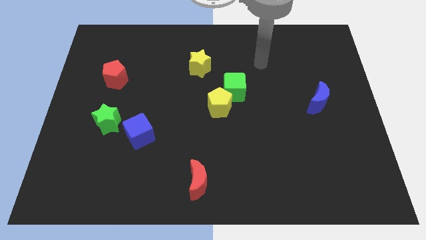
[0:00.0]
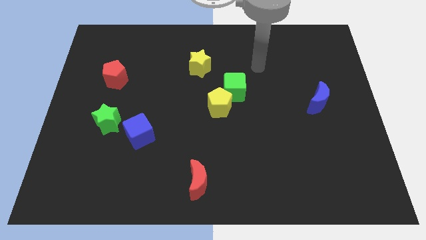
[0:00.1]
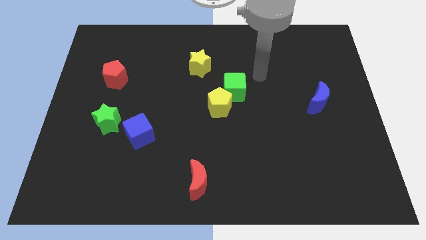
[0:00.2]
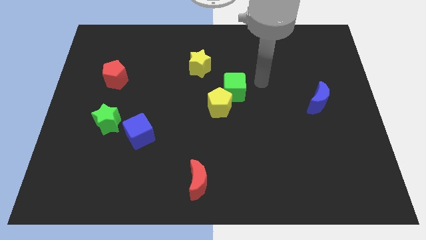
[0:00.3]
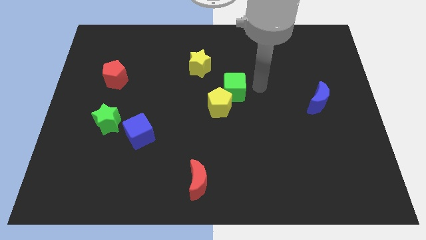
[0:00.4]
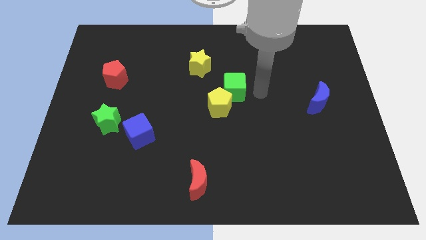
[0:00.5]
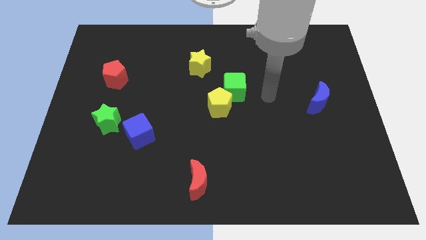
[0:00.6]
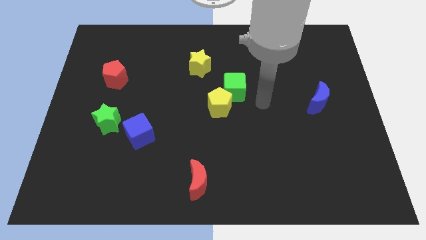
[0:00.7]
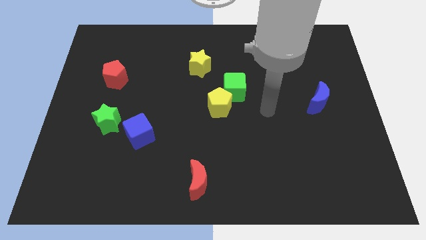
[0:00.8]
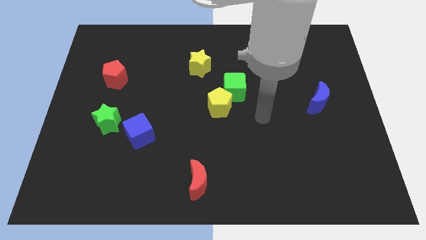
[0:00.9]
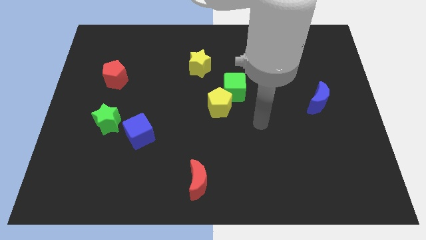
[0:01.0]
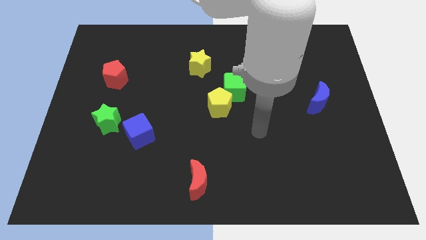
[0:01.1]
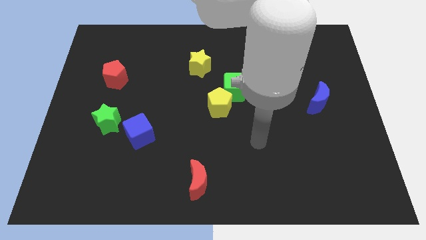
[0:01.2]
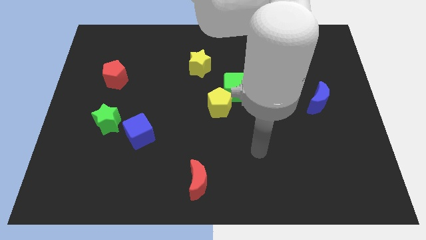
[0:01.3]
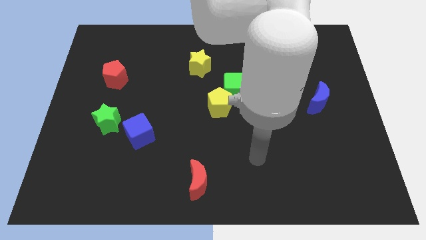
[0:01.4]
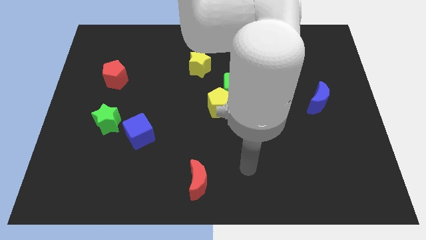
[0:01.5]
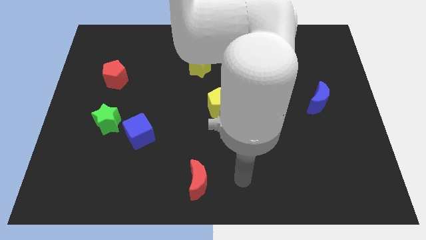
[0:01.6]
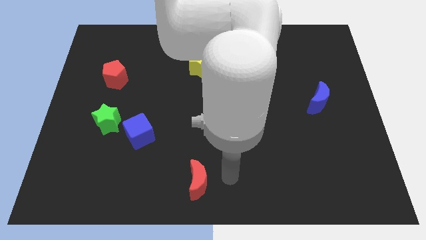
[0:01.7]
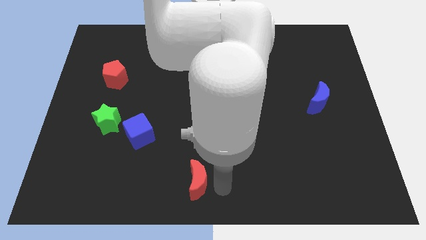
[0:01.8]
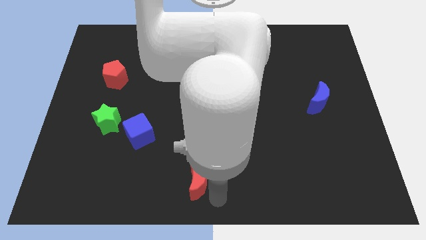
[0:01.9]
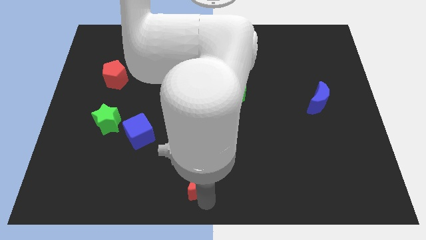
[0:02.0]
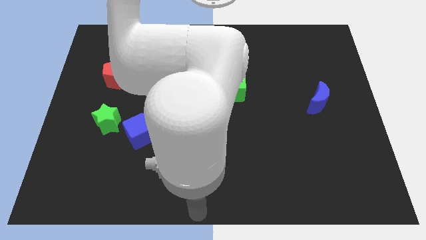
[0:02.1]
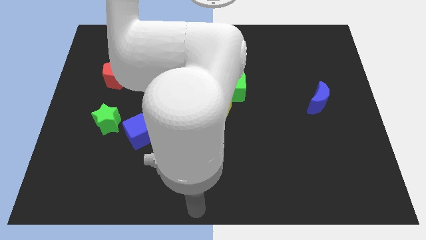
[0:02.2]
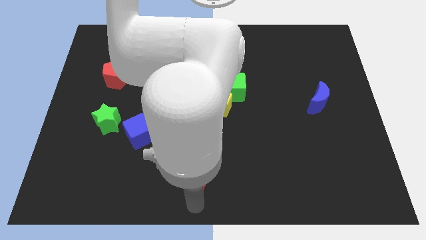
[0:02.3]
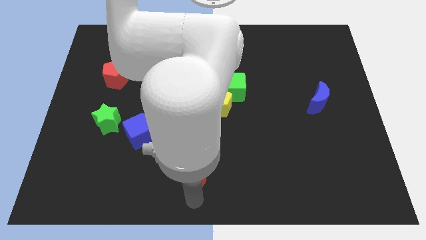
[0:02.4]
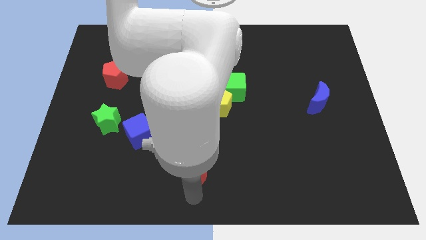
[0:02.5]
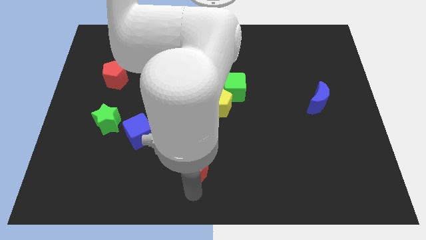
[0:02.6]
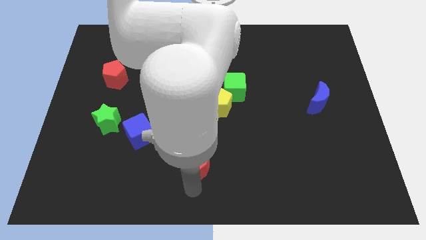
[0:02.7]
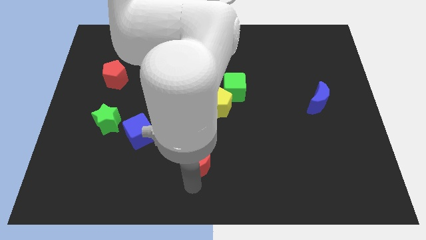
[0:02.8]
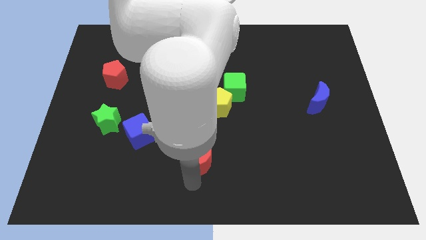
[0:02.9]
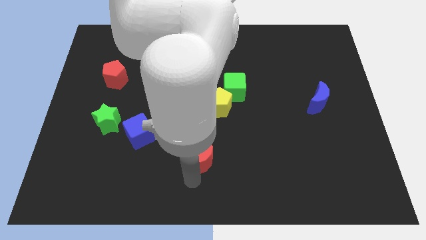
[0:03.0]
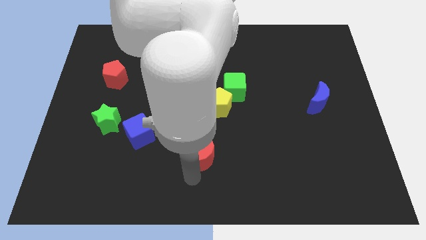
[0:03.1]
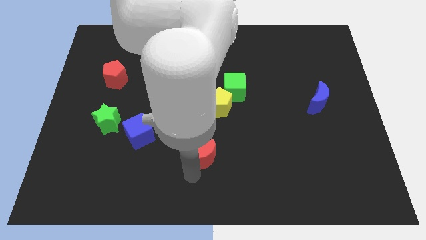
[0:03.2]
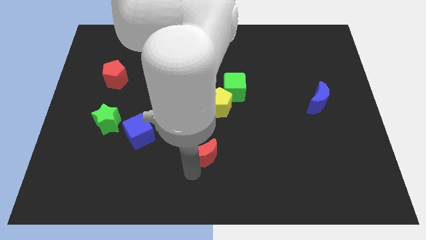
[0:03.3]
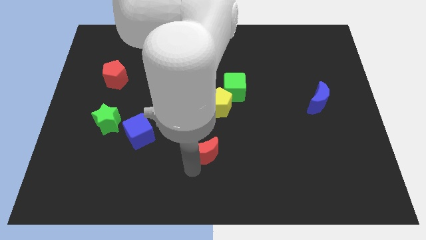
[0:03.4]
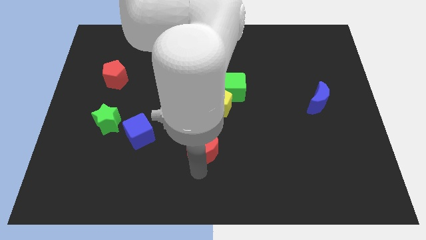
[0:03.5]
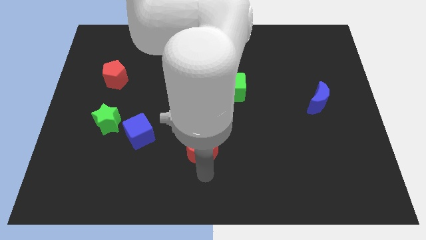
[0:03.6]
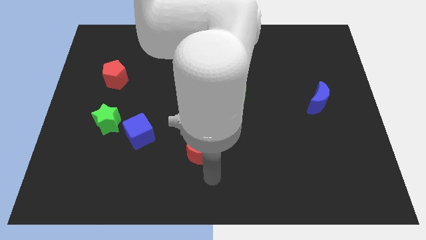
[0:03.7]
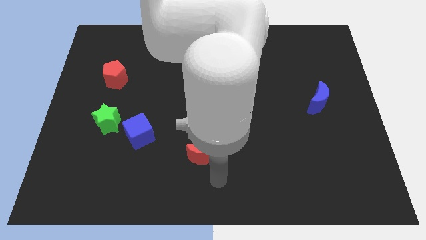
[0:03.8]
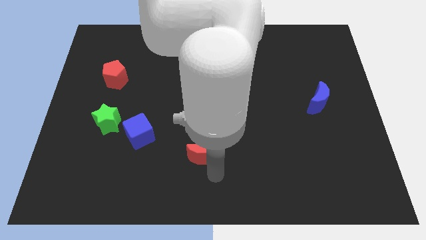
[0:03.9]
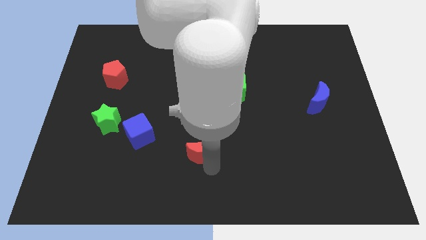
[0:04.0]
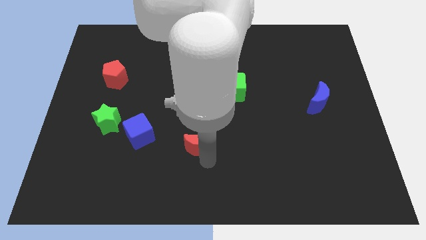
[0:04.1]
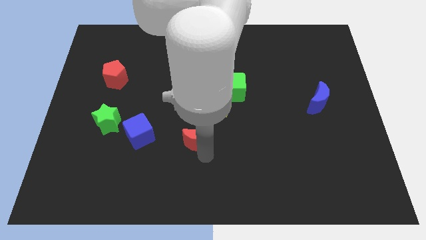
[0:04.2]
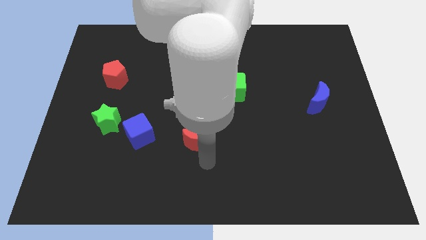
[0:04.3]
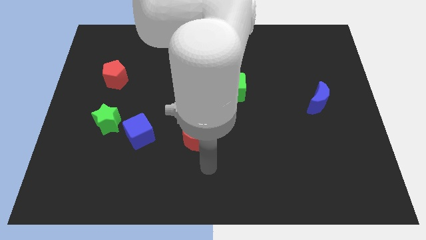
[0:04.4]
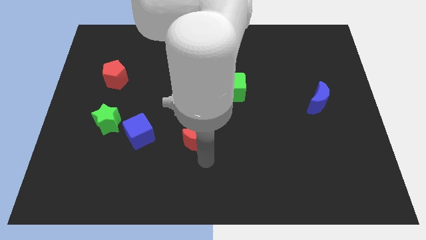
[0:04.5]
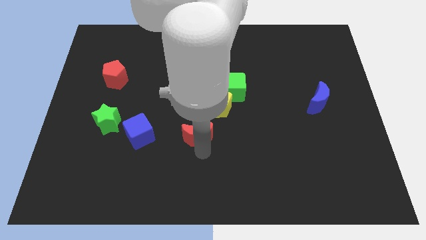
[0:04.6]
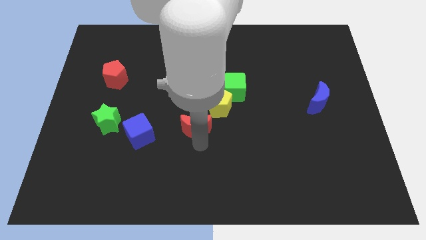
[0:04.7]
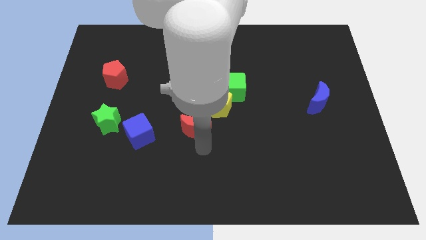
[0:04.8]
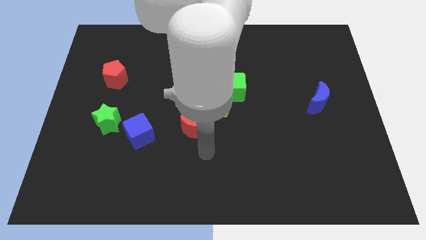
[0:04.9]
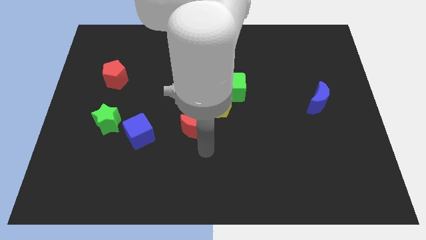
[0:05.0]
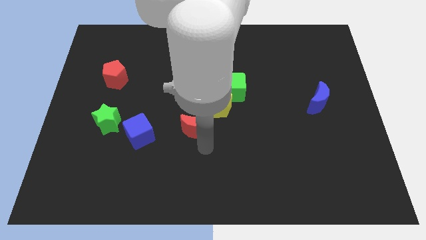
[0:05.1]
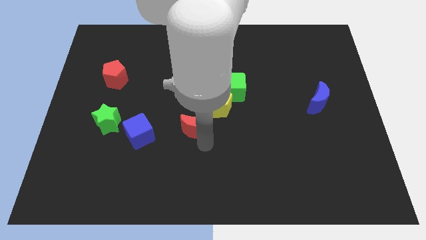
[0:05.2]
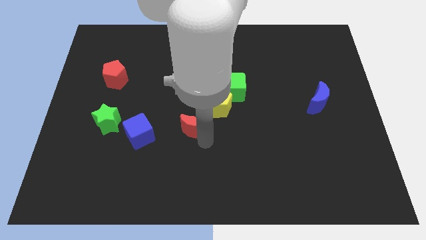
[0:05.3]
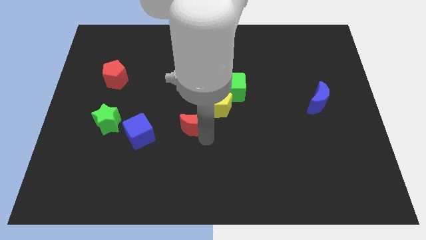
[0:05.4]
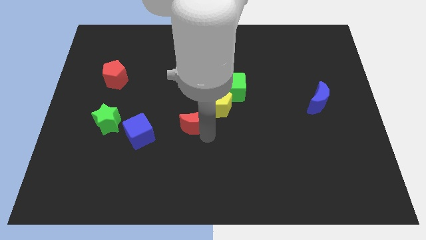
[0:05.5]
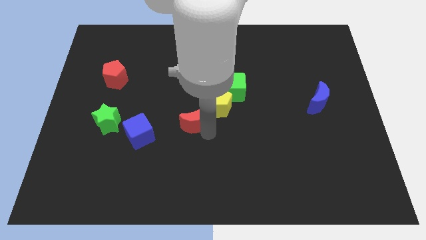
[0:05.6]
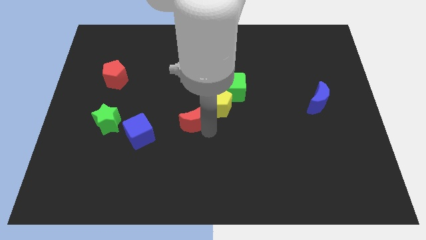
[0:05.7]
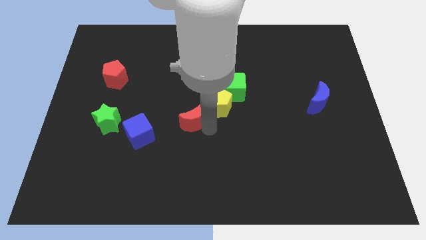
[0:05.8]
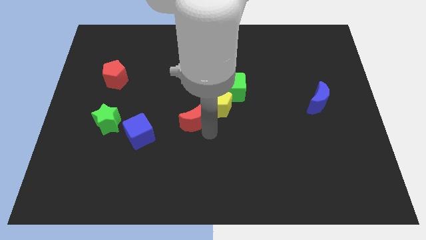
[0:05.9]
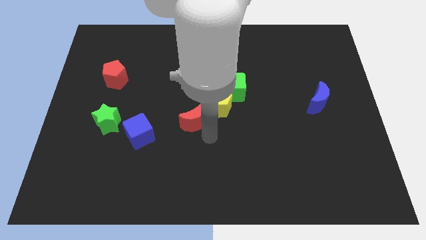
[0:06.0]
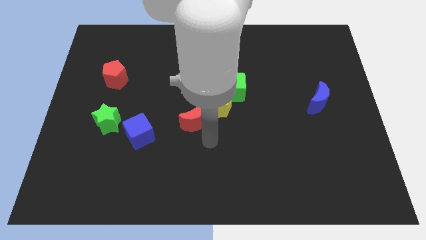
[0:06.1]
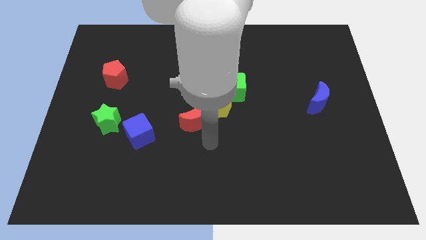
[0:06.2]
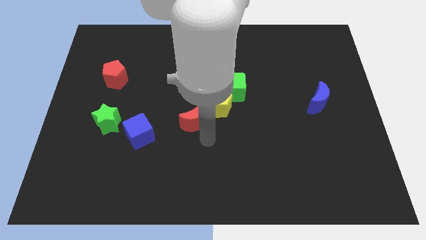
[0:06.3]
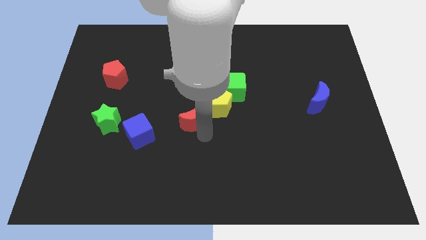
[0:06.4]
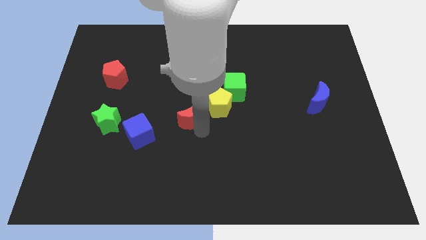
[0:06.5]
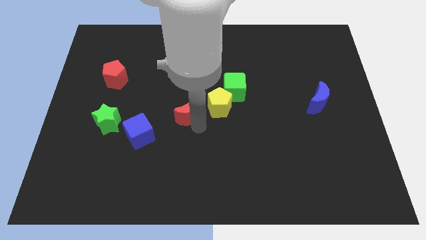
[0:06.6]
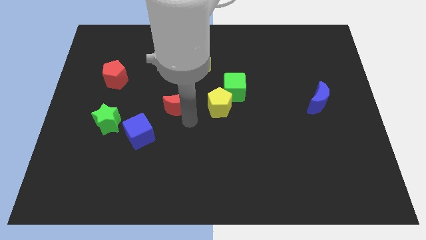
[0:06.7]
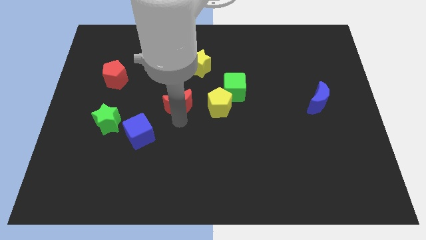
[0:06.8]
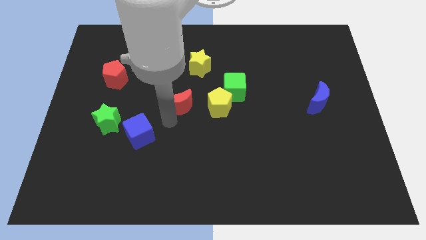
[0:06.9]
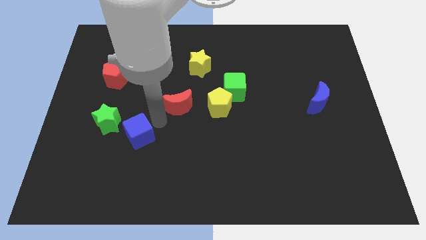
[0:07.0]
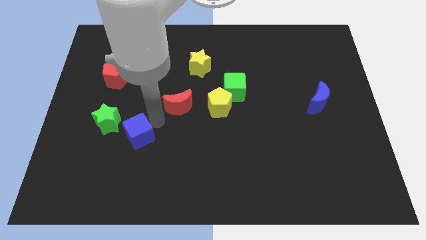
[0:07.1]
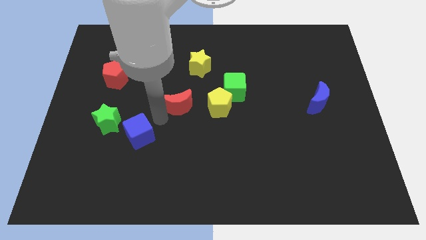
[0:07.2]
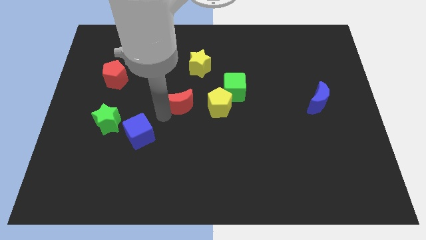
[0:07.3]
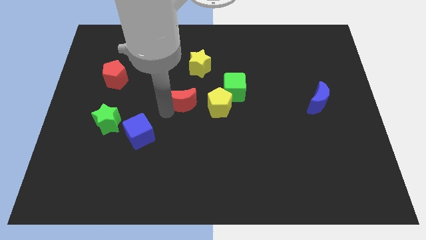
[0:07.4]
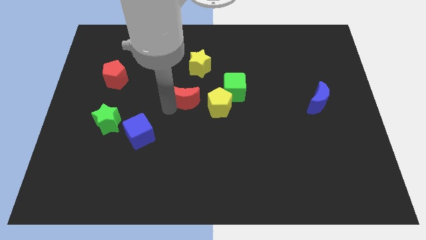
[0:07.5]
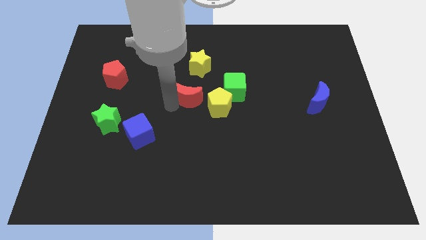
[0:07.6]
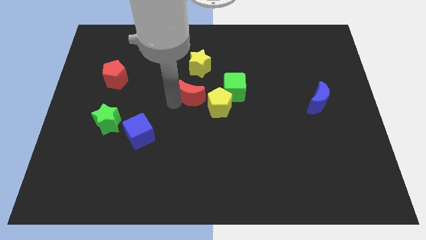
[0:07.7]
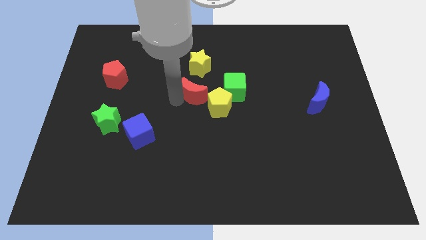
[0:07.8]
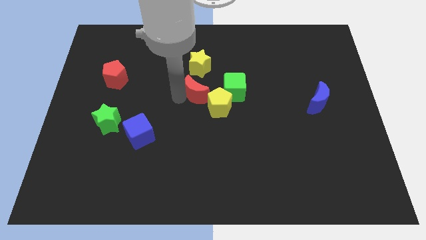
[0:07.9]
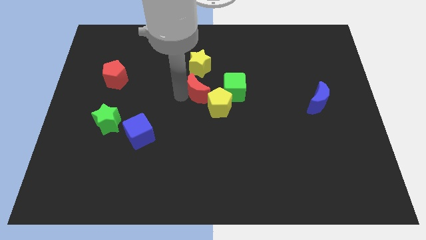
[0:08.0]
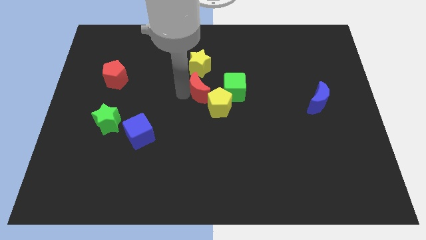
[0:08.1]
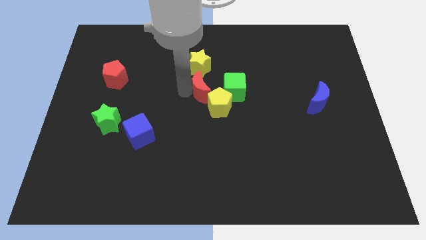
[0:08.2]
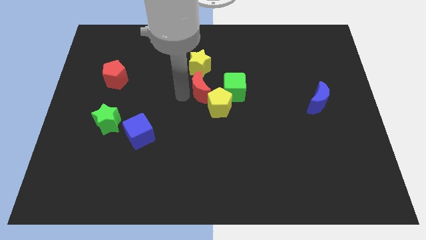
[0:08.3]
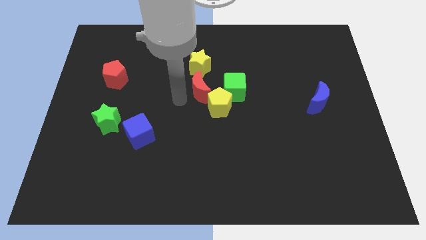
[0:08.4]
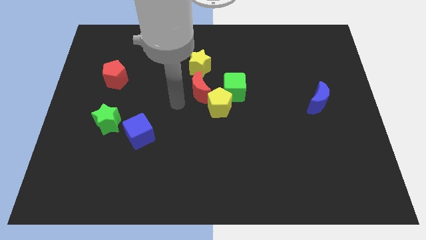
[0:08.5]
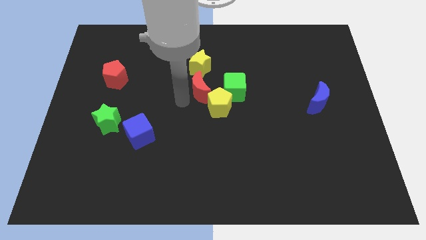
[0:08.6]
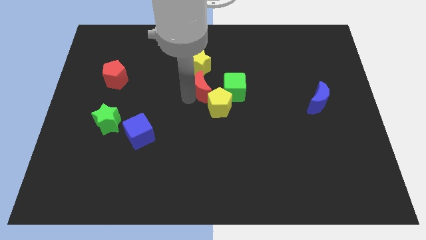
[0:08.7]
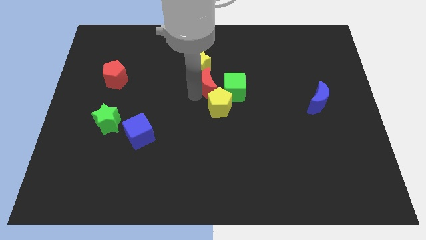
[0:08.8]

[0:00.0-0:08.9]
slide the red moon diagonally down and to the right of the yellow star
